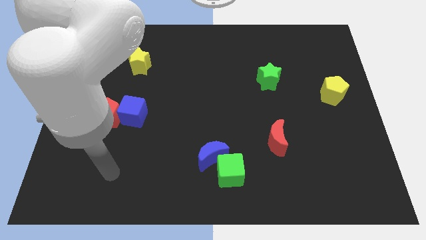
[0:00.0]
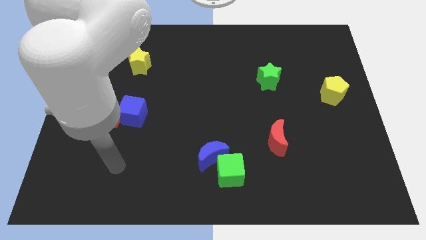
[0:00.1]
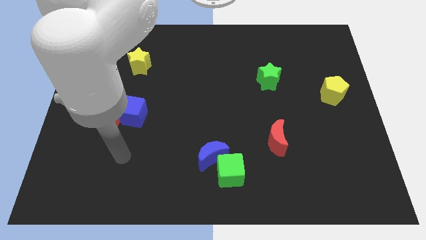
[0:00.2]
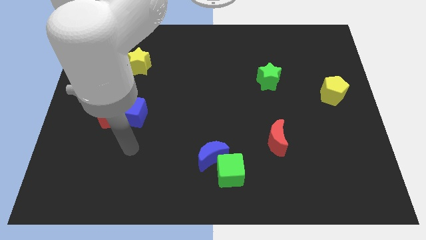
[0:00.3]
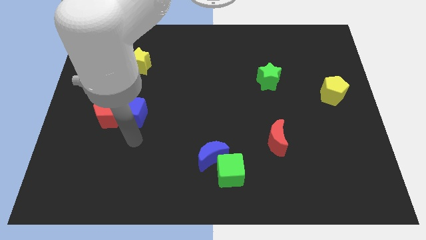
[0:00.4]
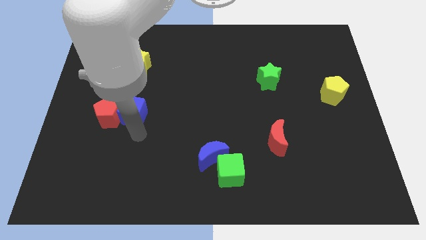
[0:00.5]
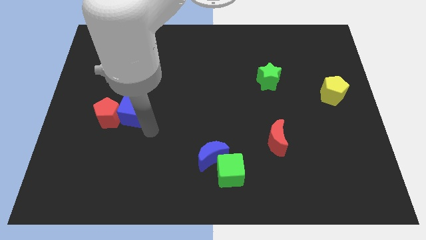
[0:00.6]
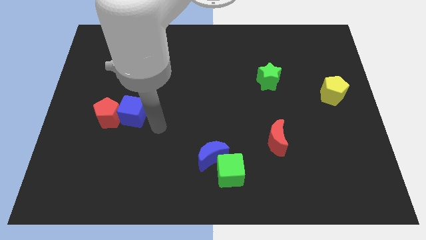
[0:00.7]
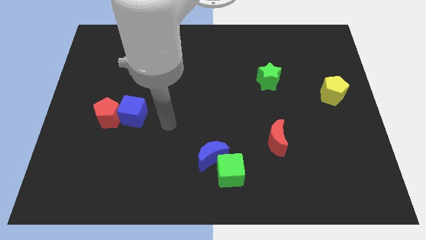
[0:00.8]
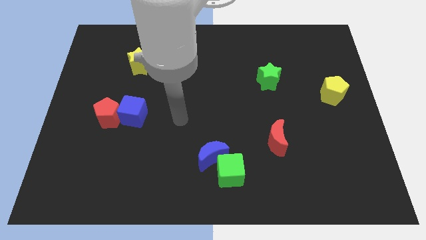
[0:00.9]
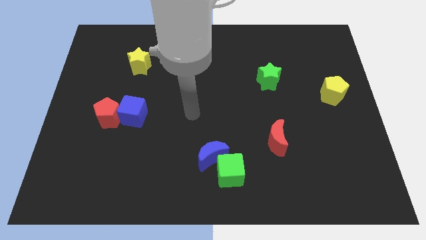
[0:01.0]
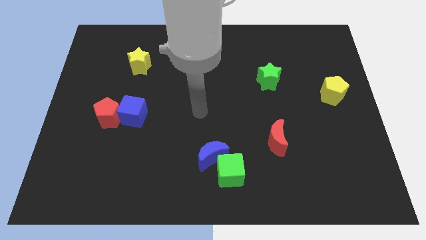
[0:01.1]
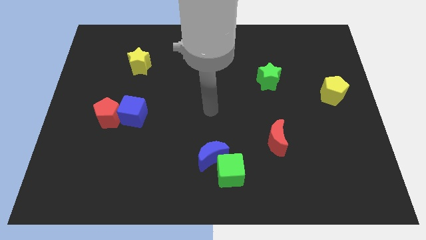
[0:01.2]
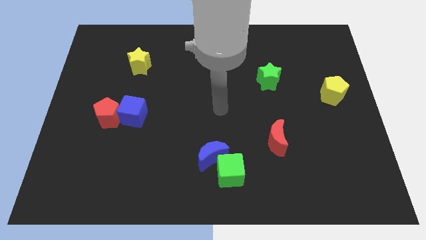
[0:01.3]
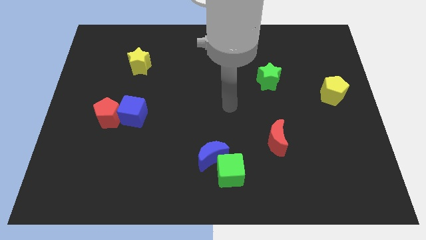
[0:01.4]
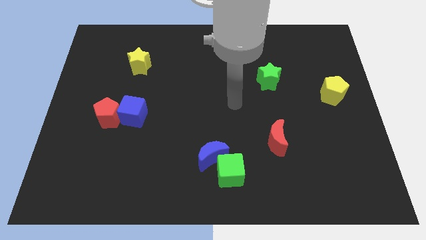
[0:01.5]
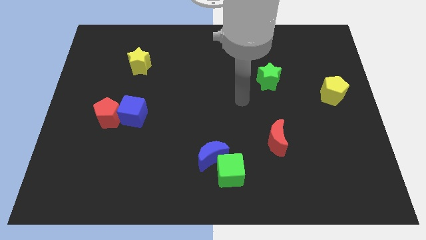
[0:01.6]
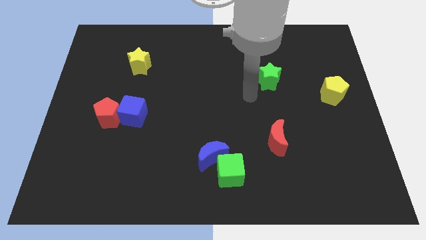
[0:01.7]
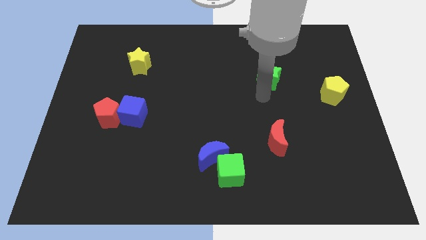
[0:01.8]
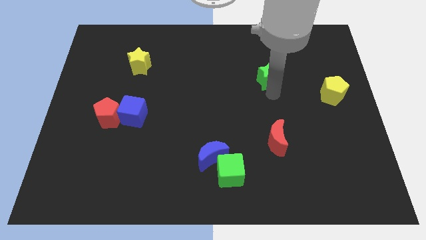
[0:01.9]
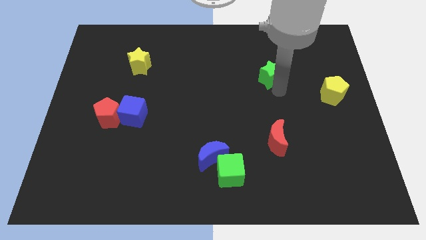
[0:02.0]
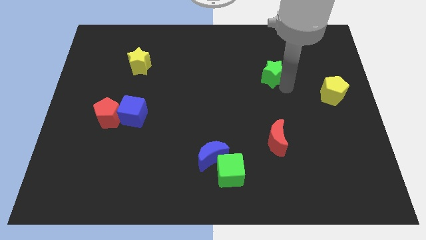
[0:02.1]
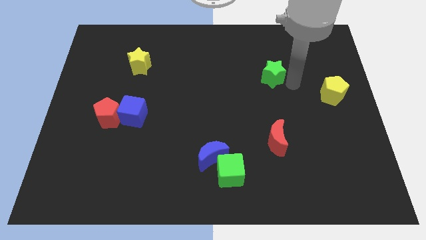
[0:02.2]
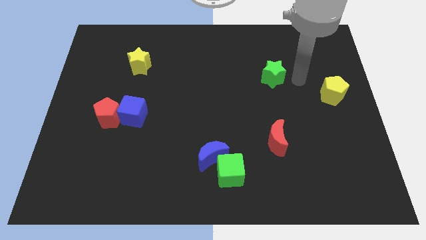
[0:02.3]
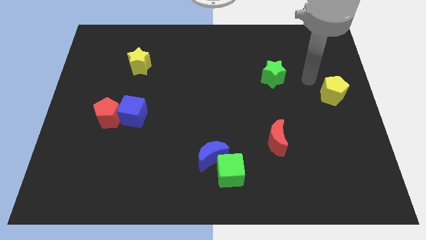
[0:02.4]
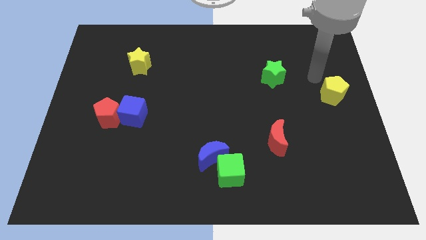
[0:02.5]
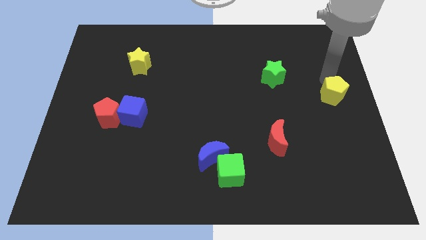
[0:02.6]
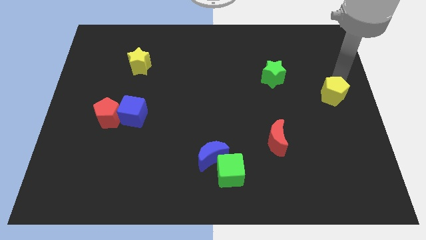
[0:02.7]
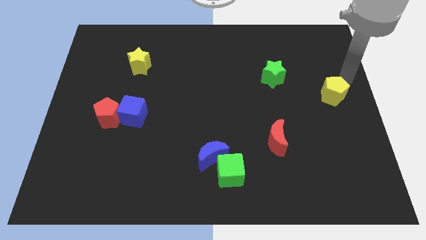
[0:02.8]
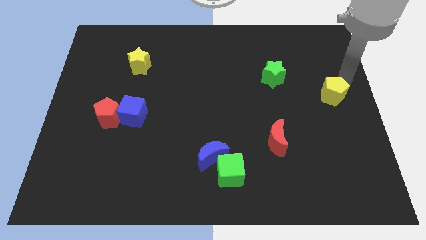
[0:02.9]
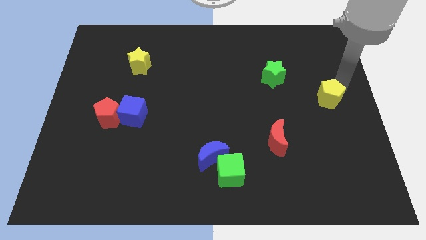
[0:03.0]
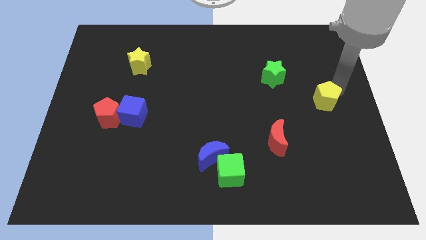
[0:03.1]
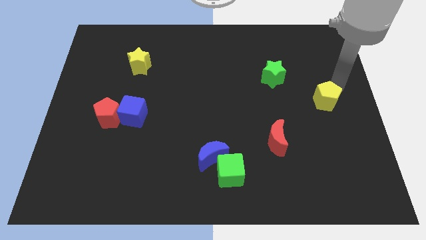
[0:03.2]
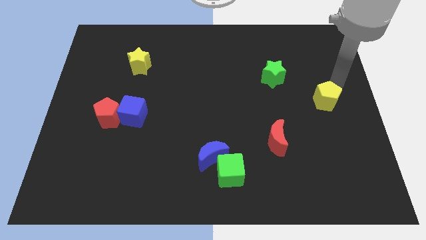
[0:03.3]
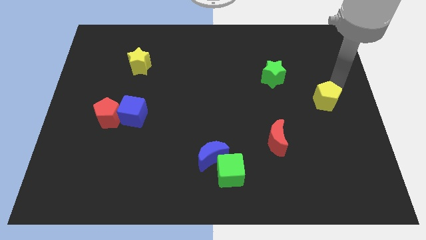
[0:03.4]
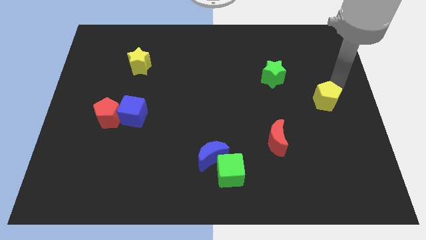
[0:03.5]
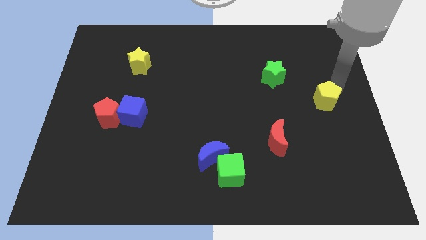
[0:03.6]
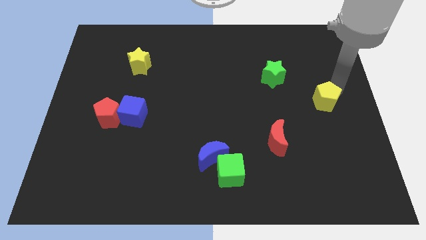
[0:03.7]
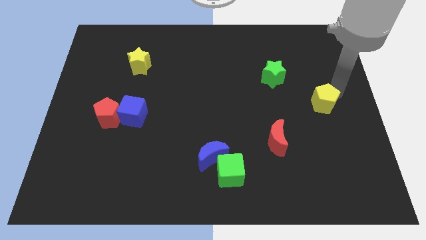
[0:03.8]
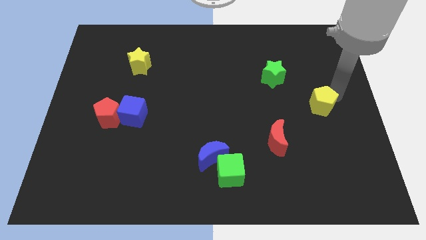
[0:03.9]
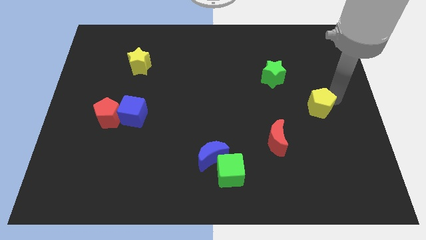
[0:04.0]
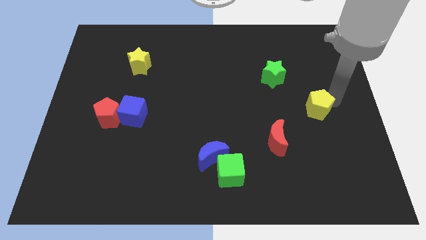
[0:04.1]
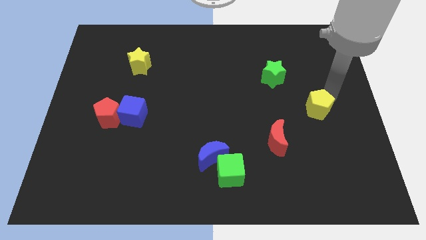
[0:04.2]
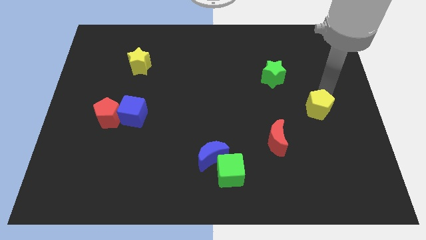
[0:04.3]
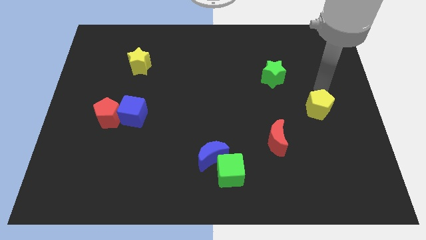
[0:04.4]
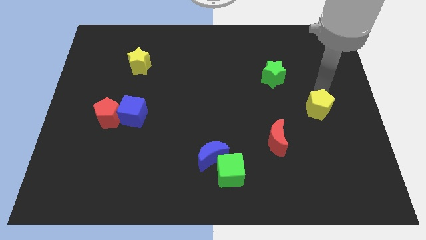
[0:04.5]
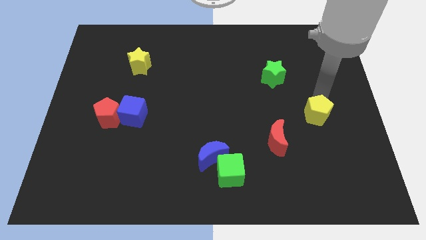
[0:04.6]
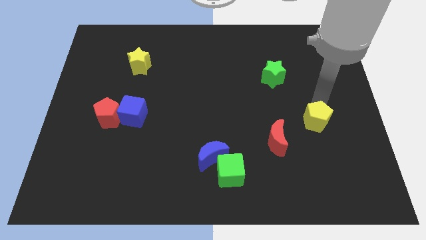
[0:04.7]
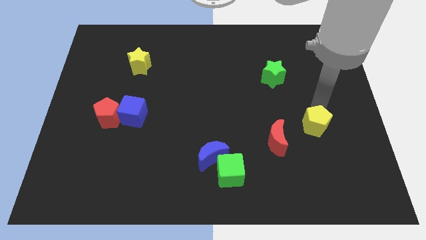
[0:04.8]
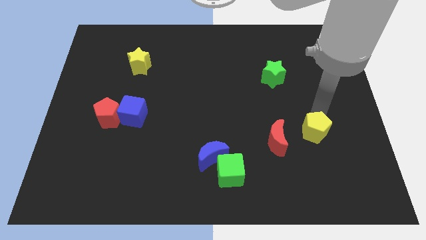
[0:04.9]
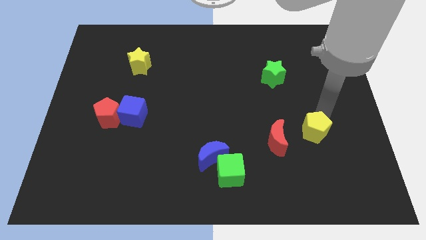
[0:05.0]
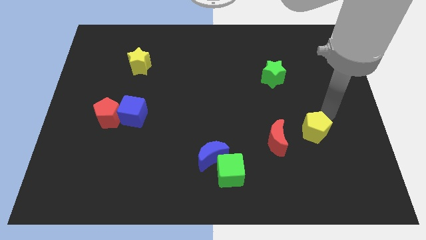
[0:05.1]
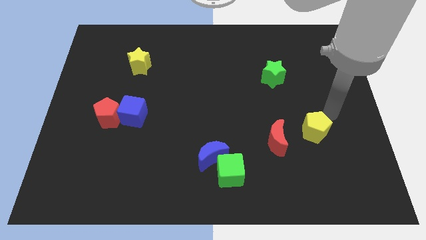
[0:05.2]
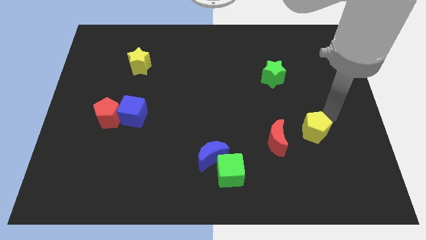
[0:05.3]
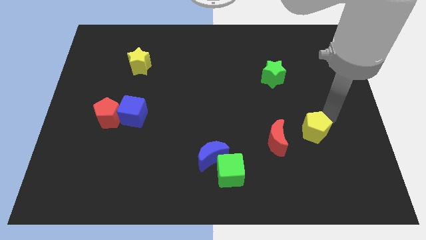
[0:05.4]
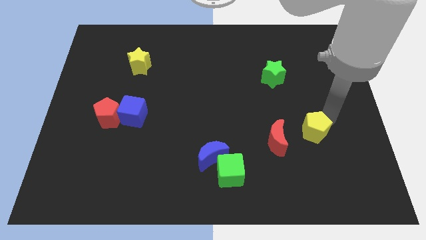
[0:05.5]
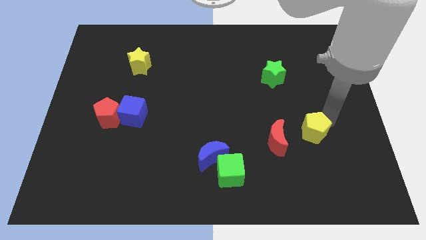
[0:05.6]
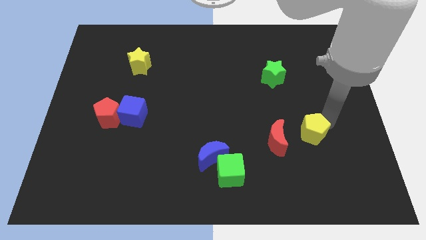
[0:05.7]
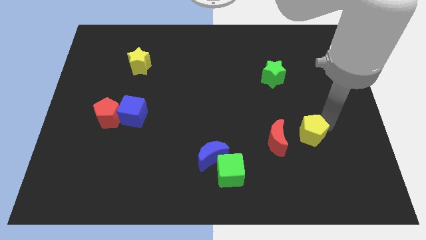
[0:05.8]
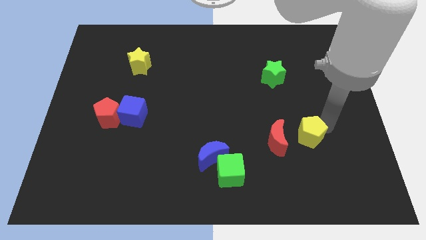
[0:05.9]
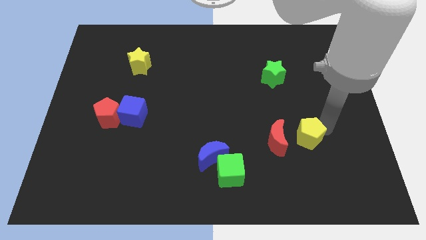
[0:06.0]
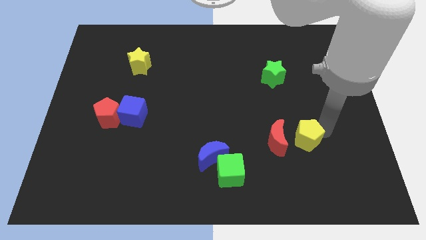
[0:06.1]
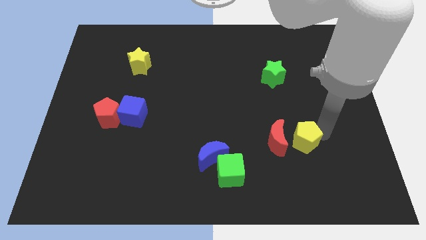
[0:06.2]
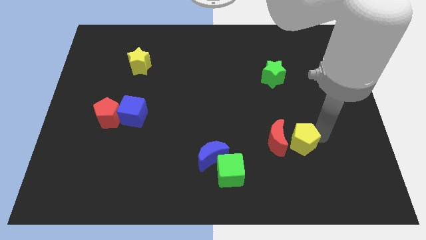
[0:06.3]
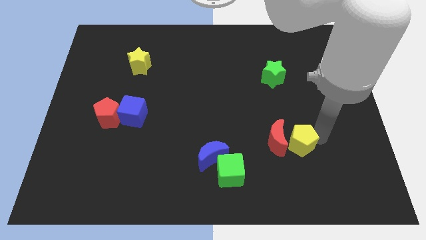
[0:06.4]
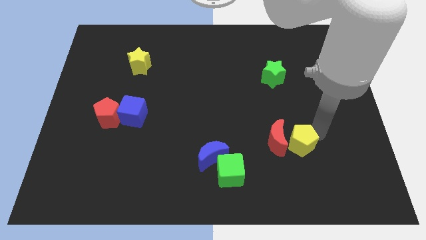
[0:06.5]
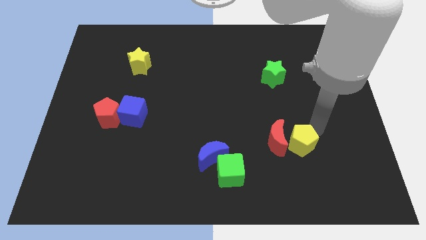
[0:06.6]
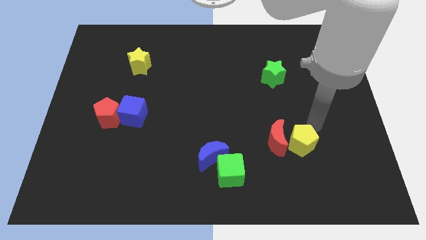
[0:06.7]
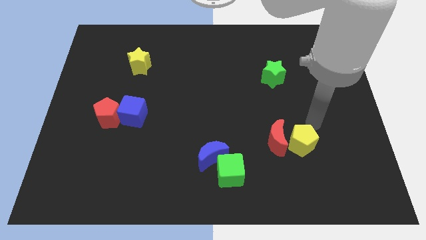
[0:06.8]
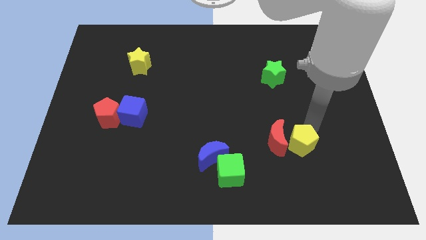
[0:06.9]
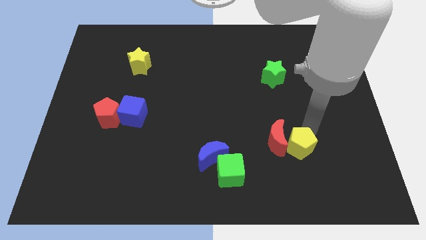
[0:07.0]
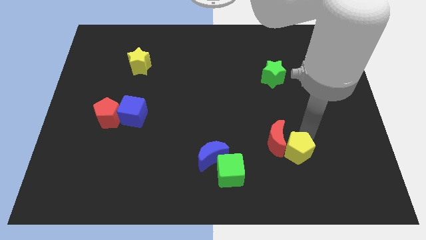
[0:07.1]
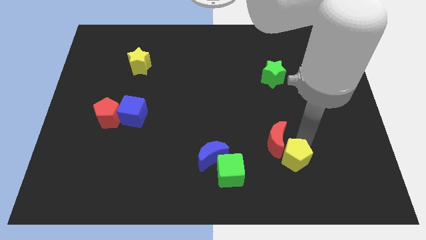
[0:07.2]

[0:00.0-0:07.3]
slide the yellow pentagon just right of the green cube

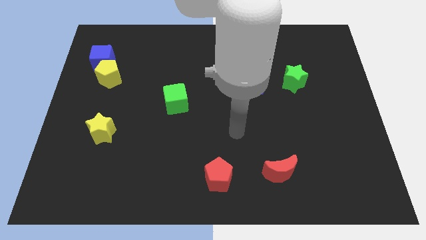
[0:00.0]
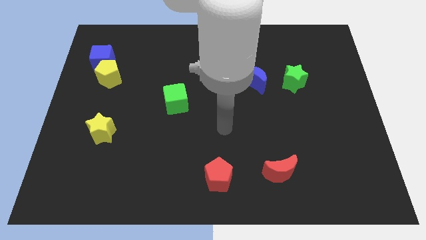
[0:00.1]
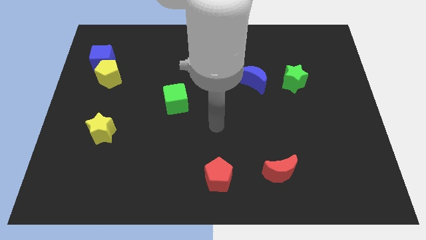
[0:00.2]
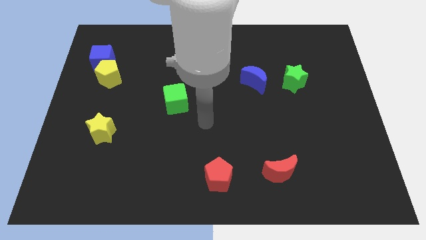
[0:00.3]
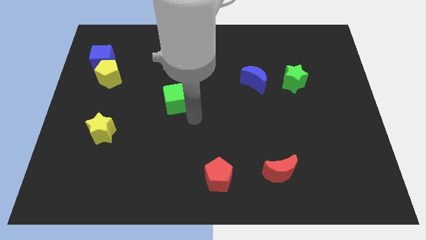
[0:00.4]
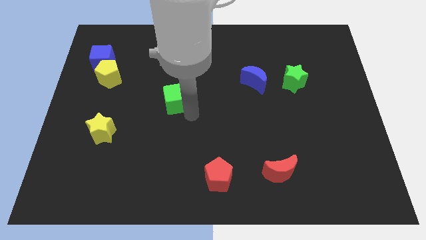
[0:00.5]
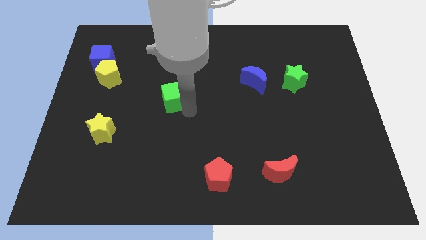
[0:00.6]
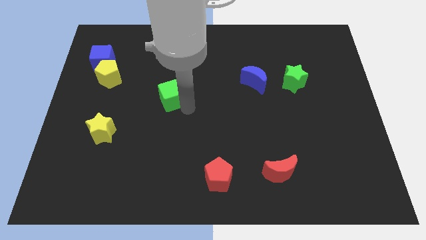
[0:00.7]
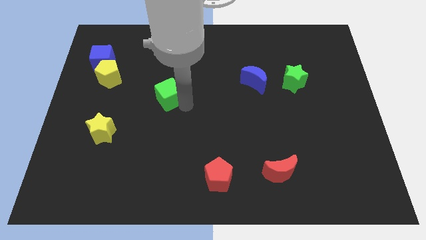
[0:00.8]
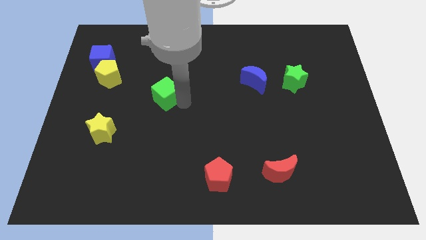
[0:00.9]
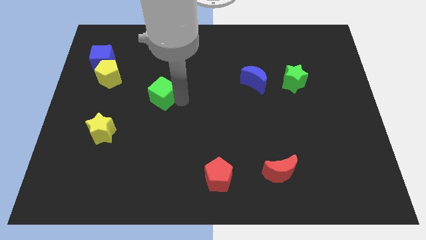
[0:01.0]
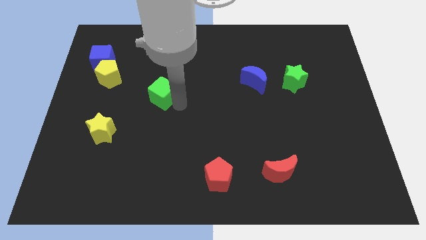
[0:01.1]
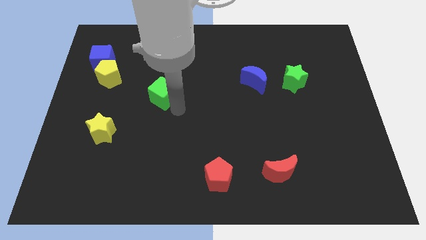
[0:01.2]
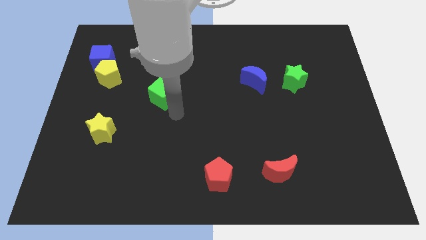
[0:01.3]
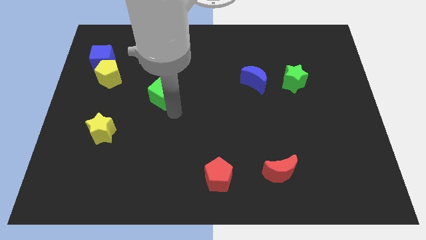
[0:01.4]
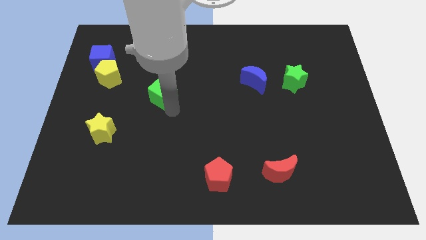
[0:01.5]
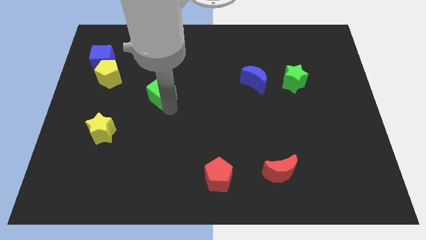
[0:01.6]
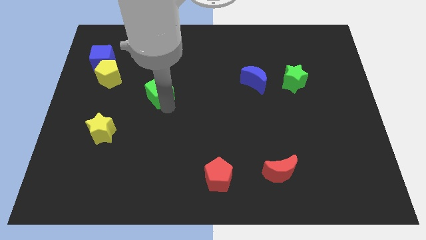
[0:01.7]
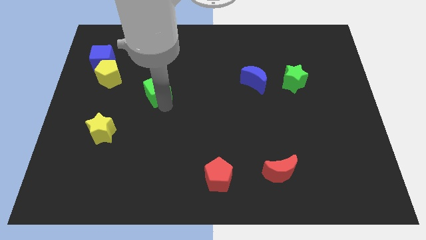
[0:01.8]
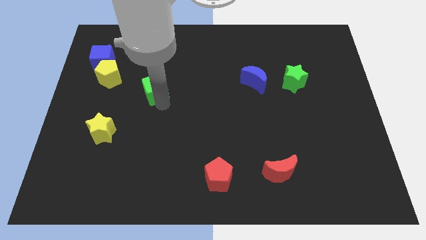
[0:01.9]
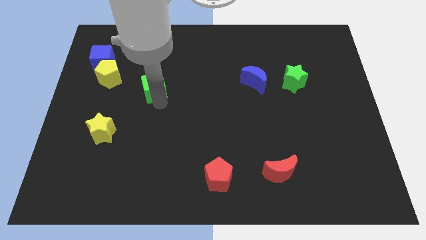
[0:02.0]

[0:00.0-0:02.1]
push the green cube to the right of the yellow pentagon
